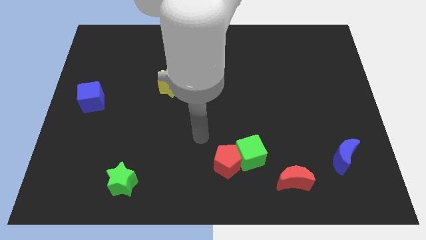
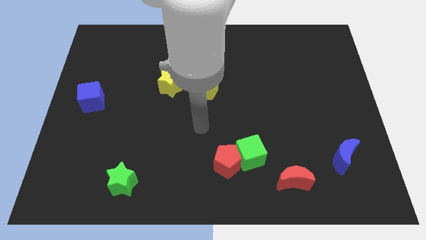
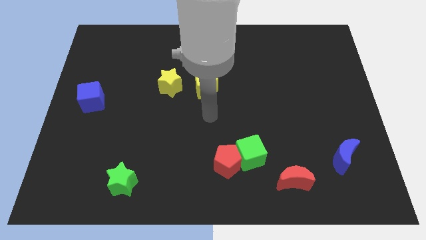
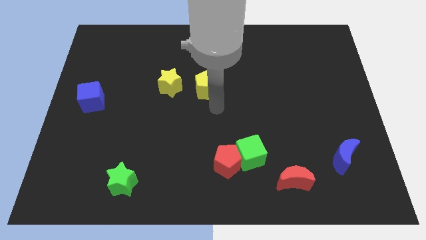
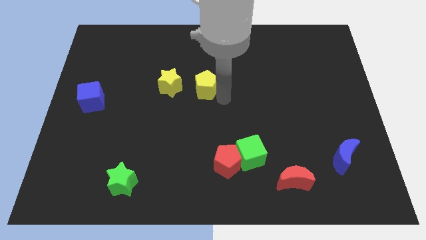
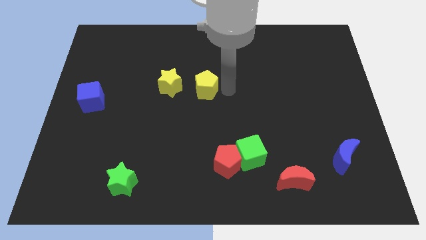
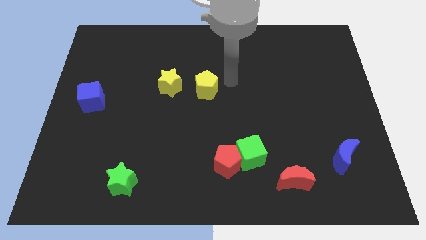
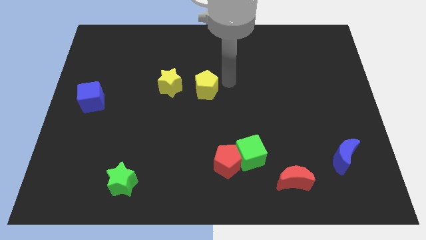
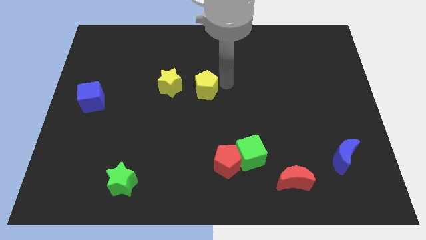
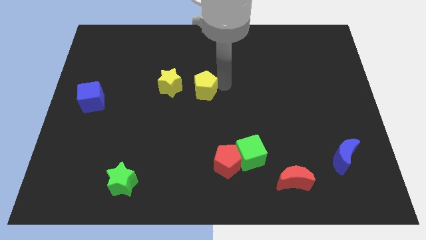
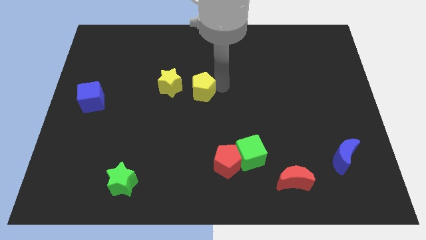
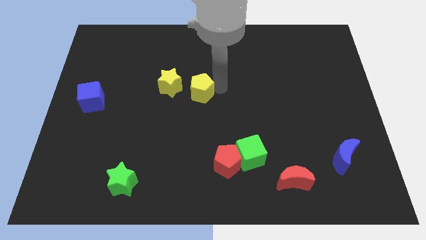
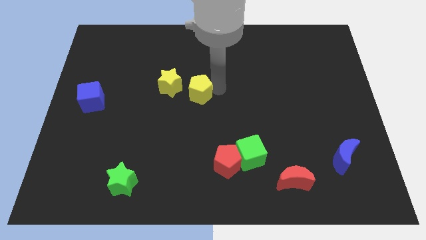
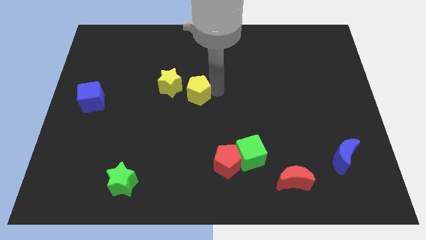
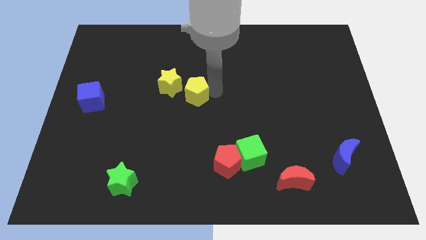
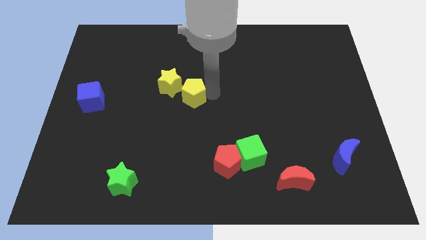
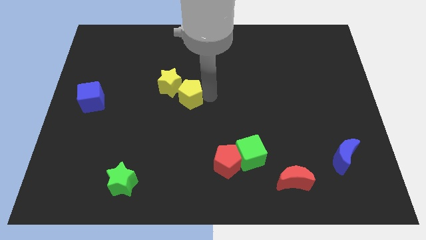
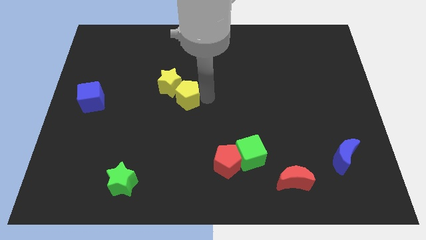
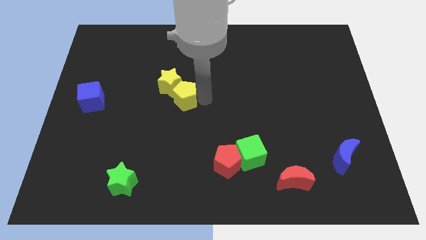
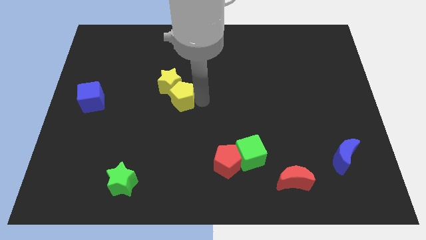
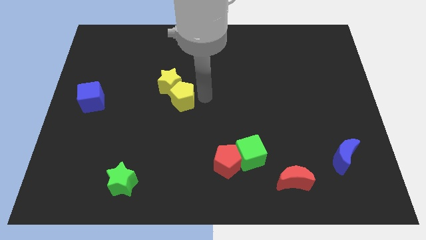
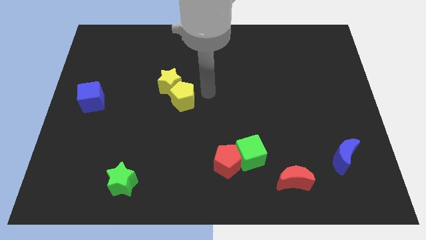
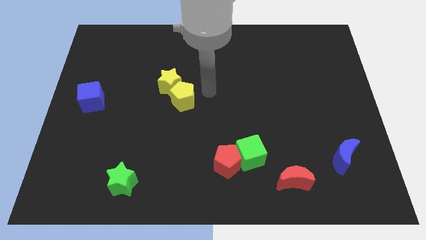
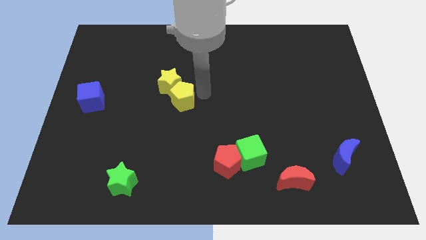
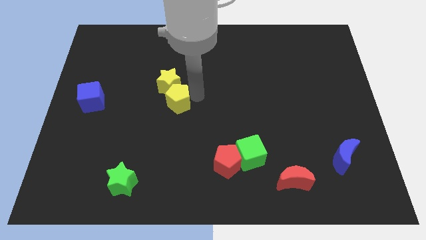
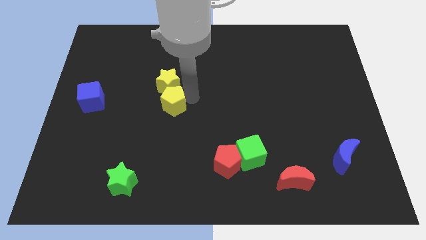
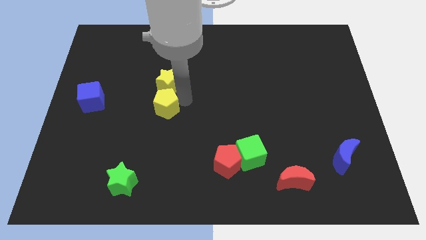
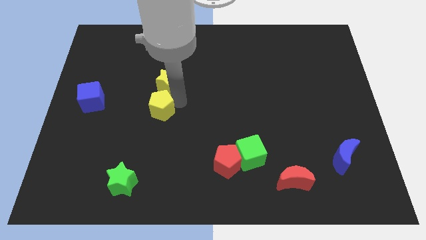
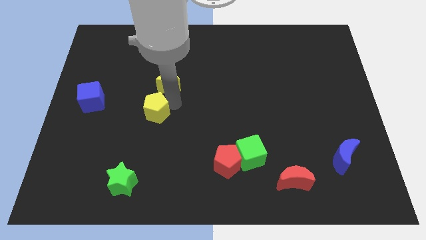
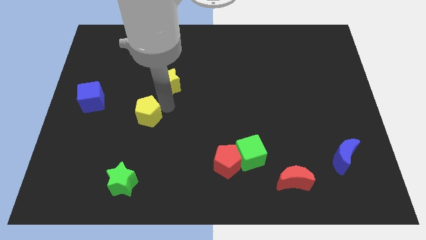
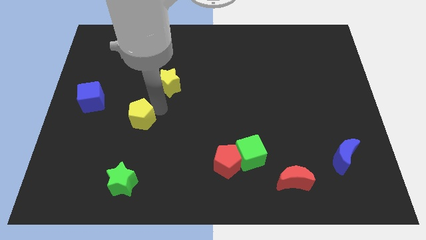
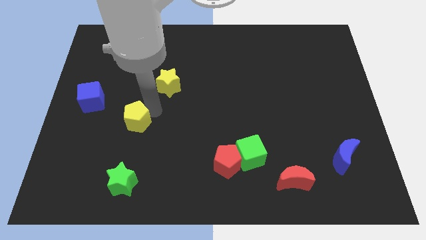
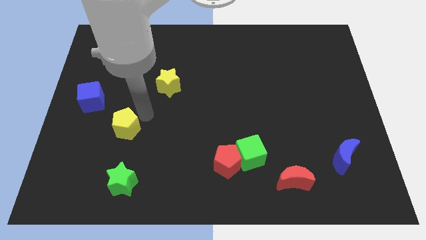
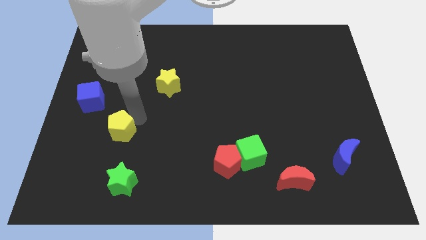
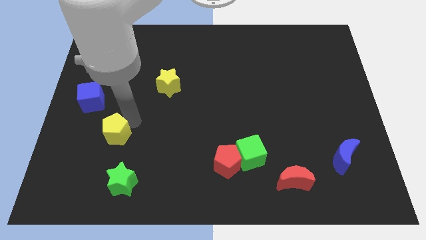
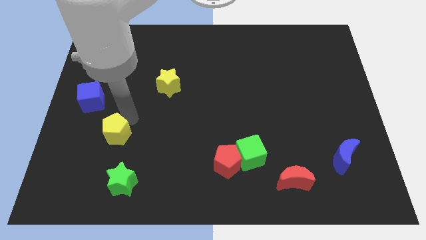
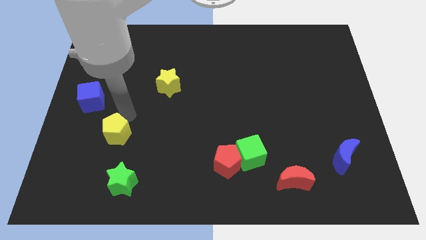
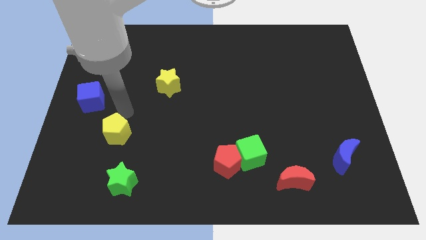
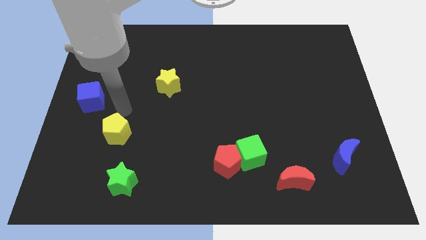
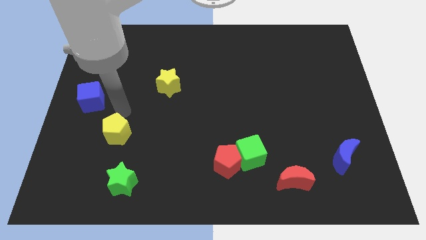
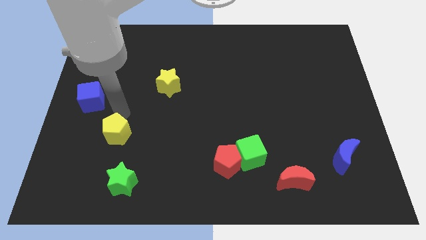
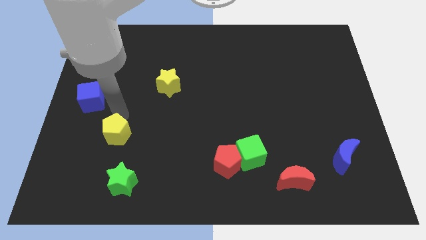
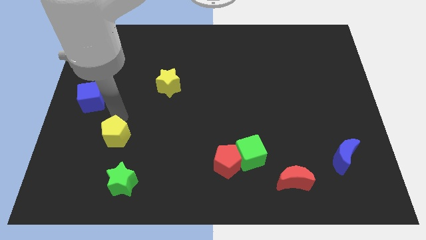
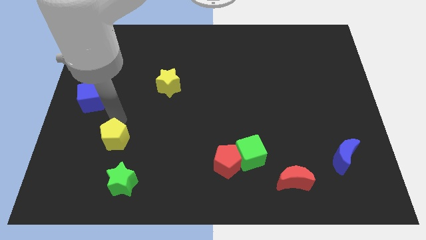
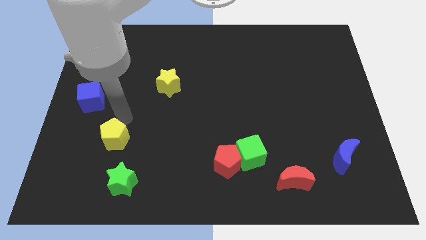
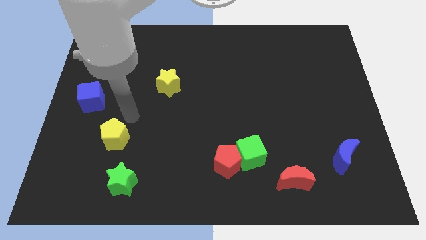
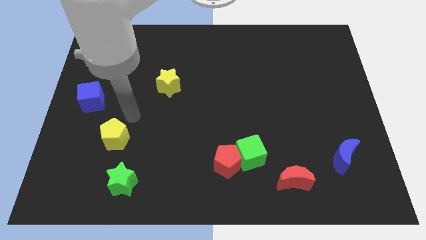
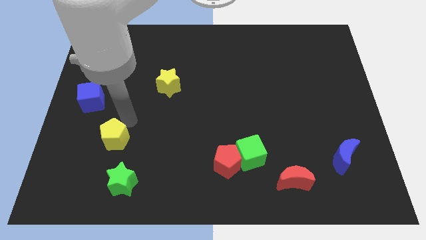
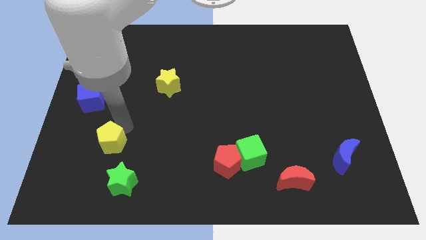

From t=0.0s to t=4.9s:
move the yellow pentagon to the top left side of the green star

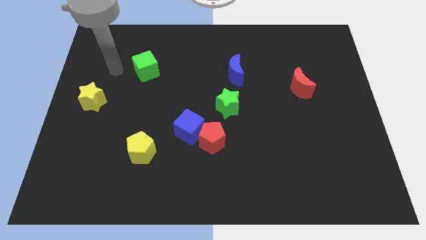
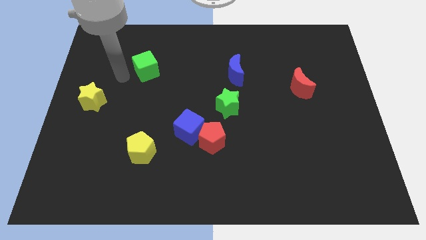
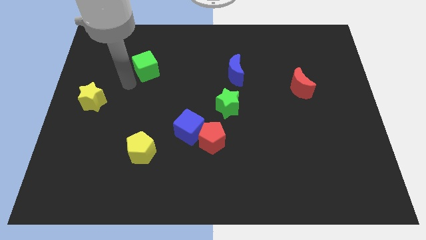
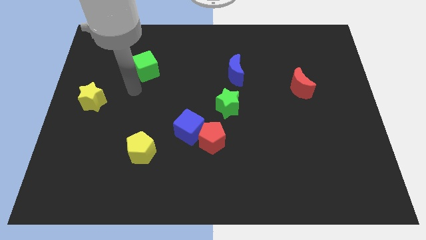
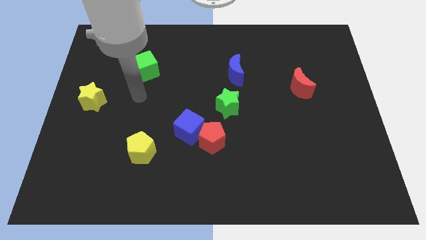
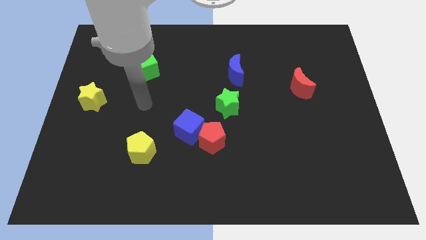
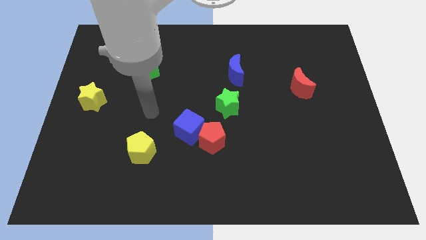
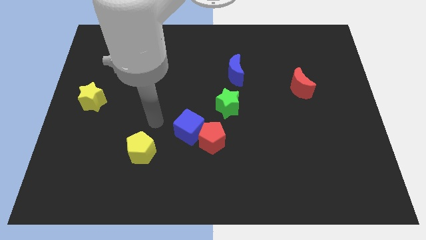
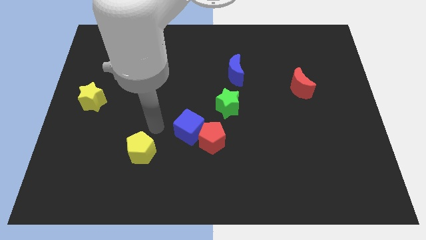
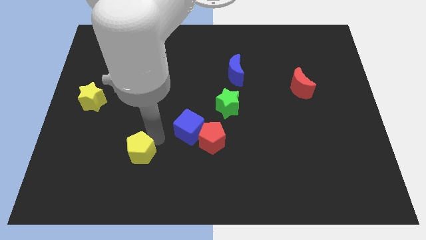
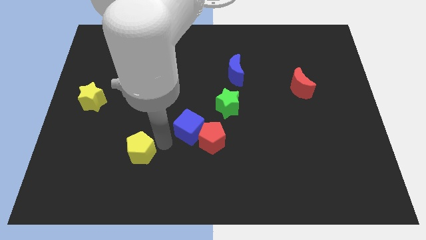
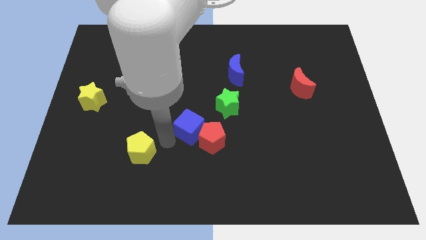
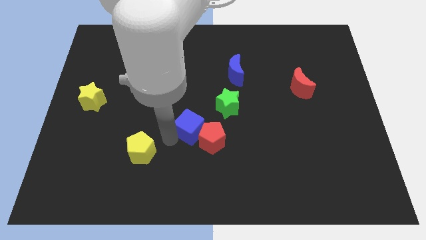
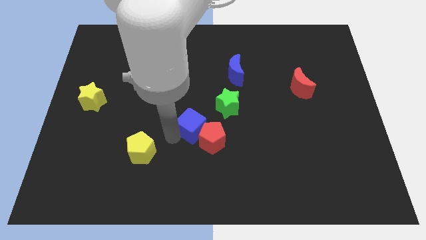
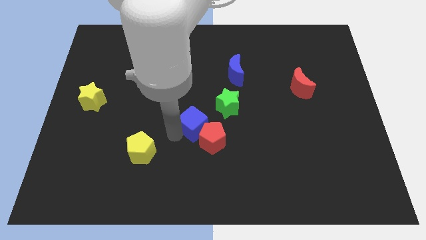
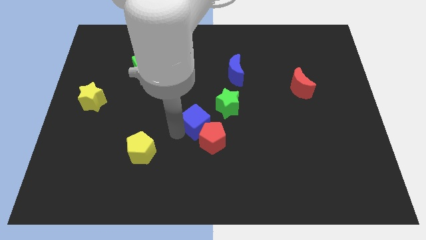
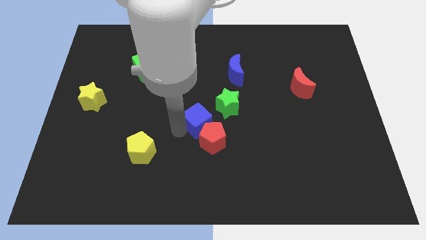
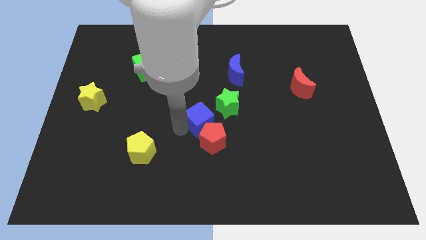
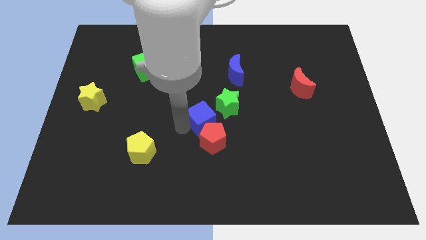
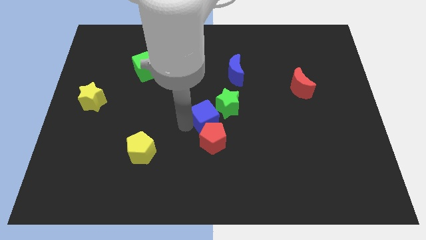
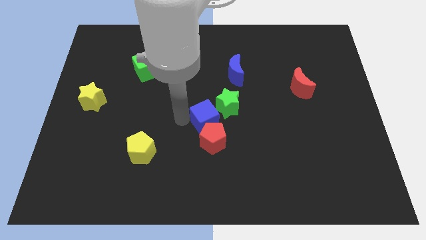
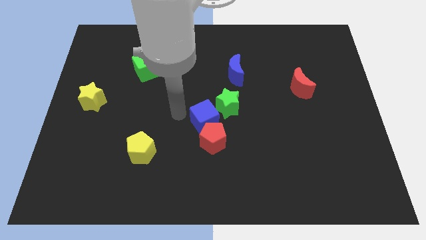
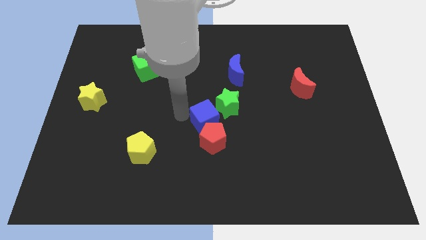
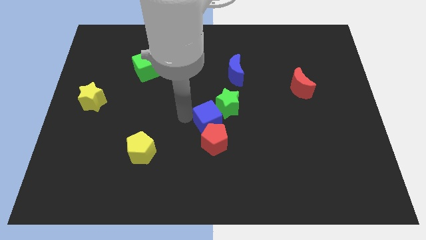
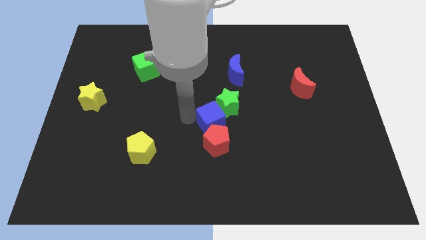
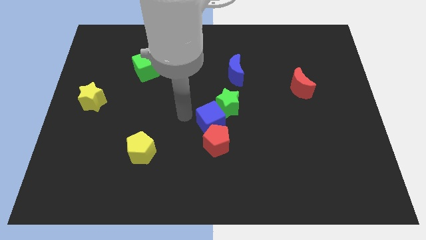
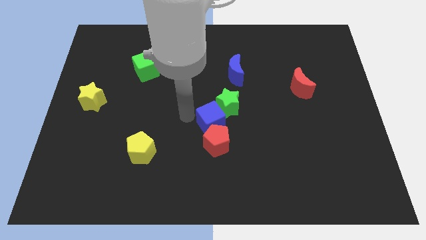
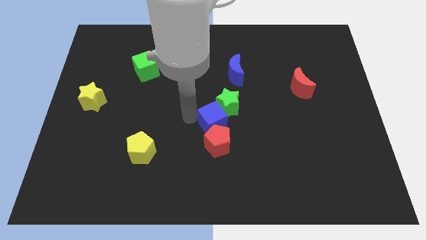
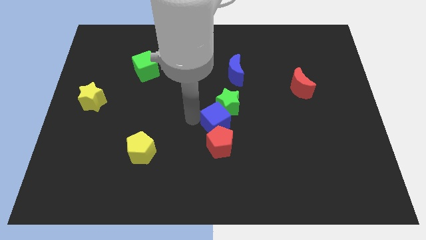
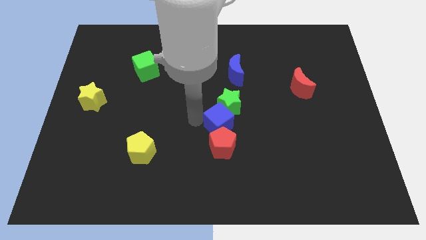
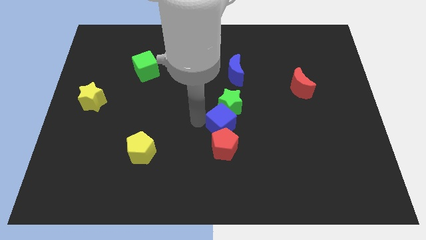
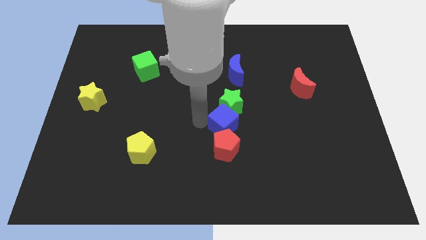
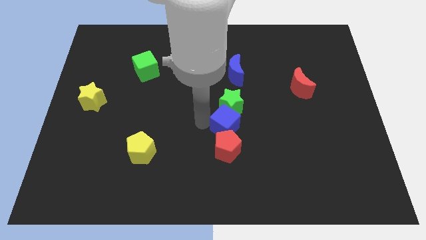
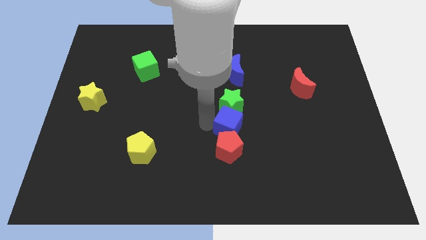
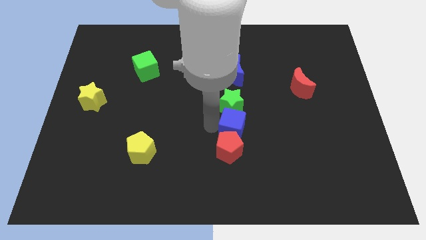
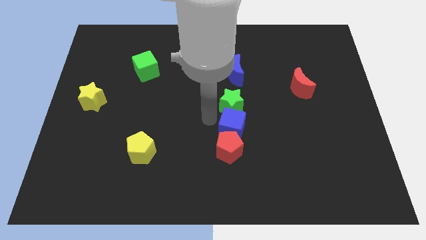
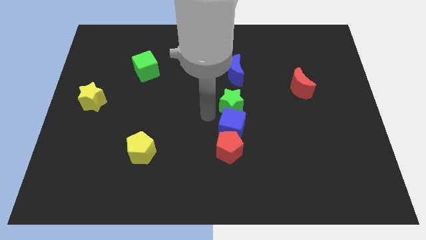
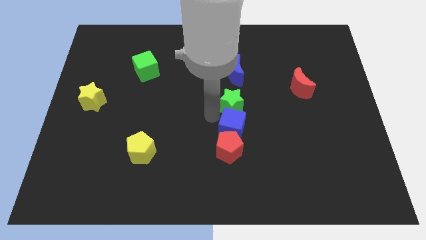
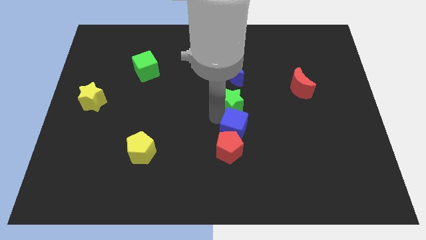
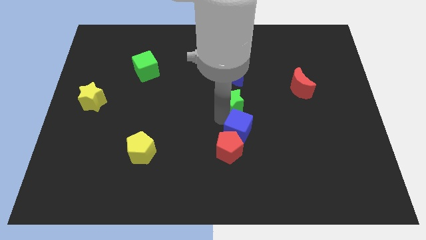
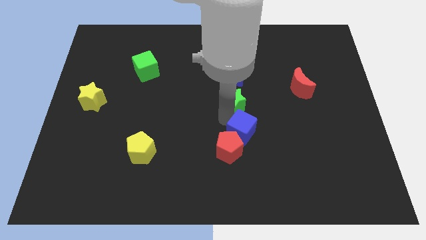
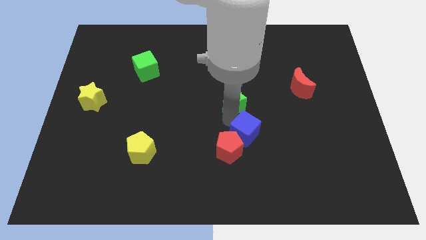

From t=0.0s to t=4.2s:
slide the blue cube right of the red pentagon
